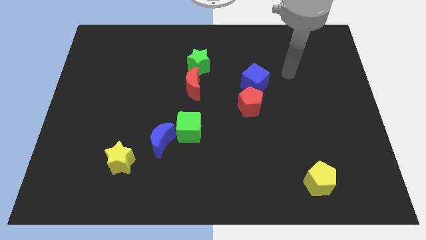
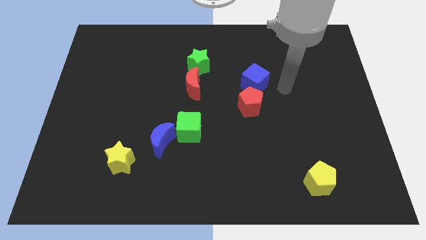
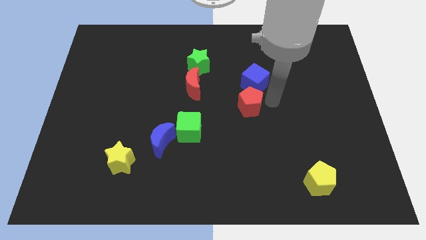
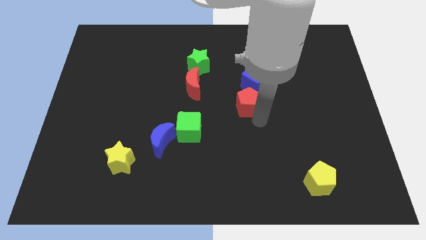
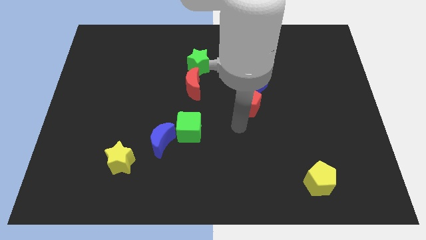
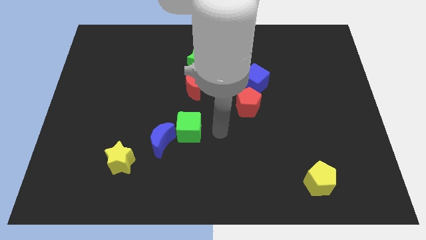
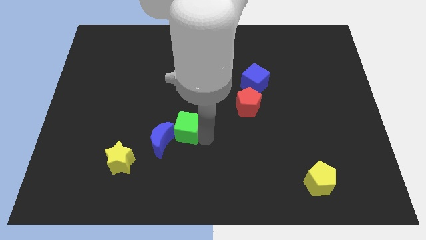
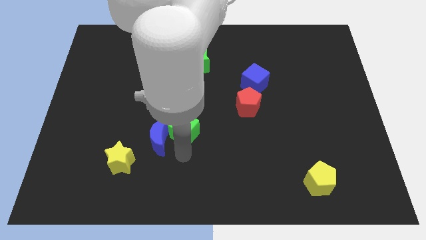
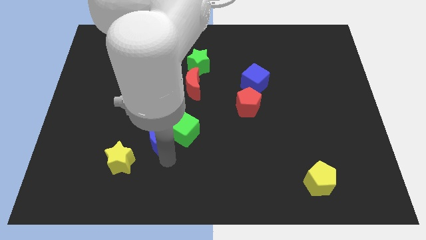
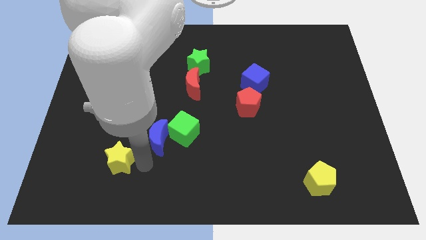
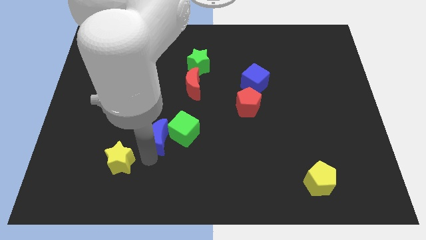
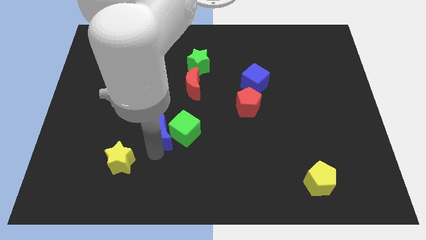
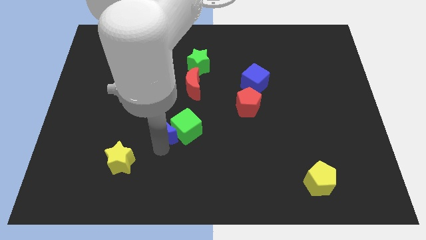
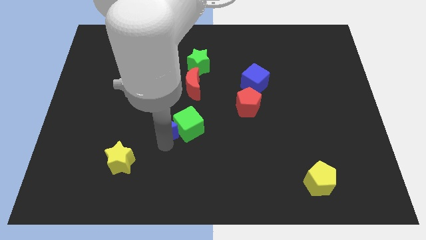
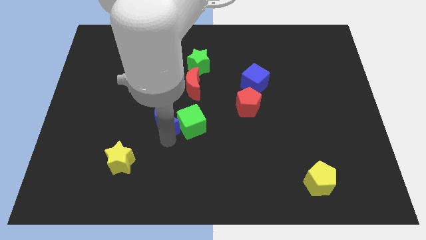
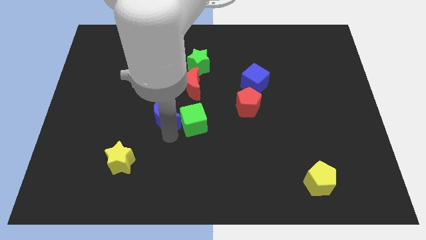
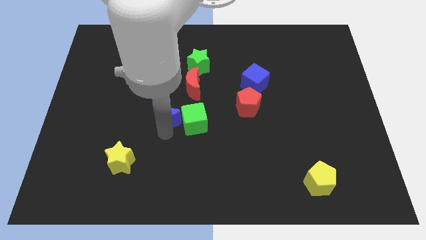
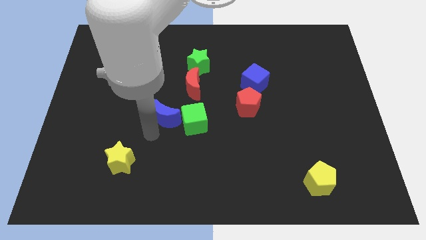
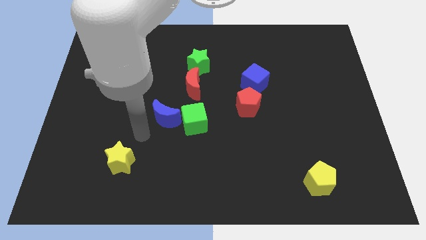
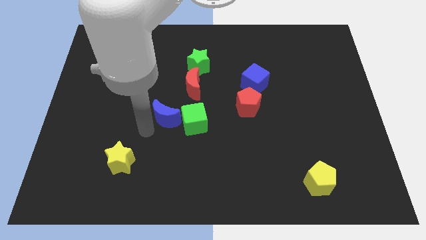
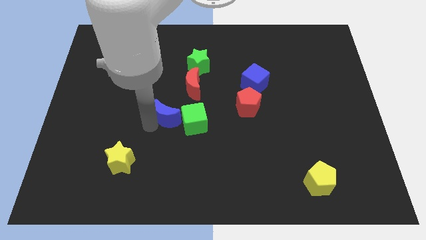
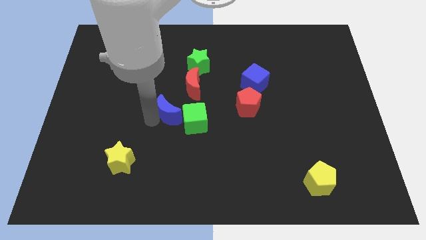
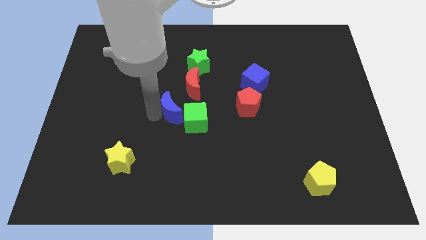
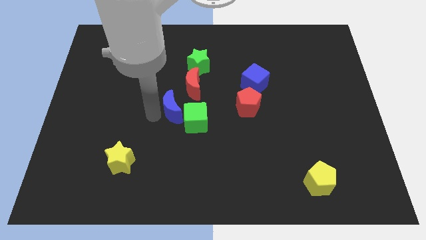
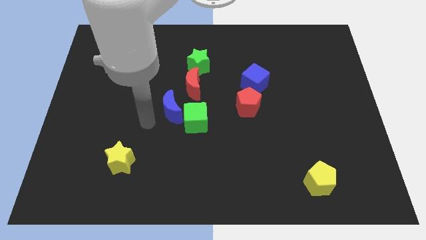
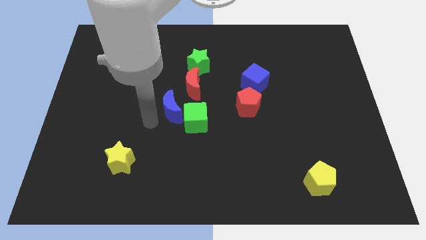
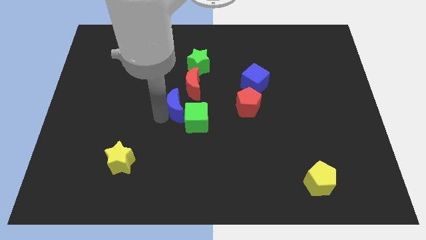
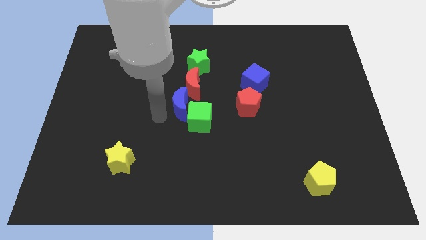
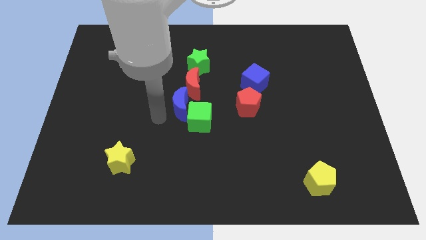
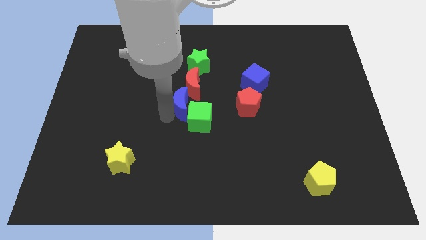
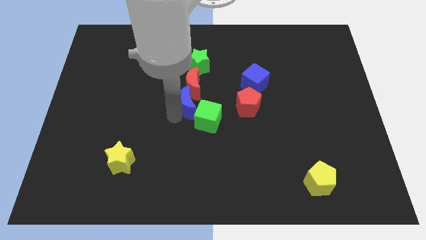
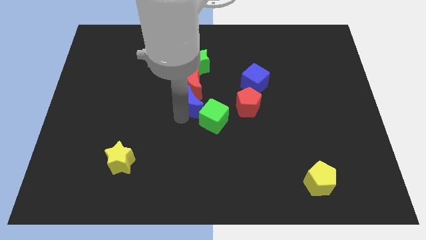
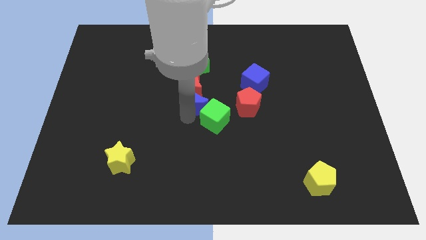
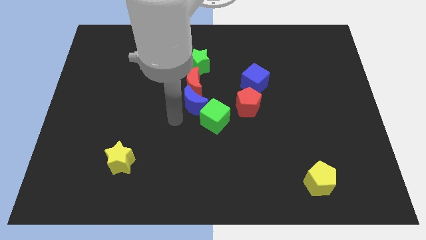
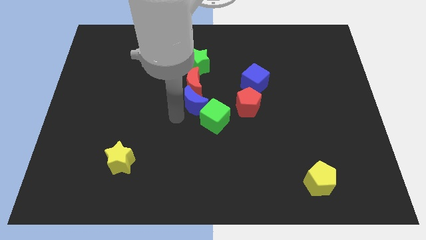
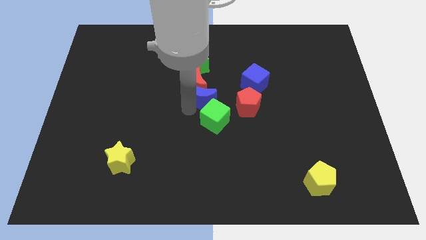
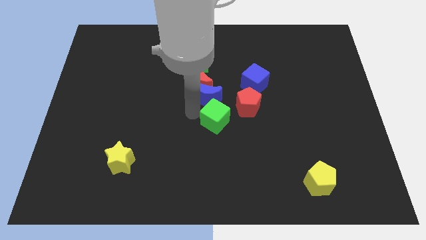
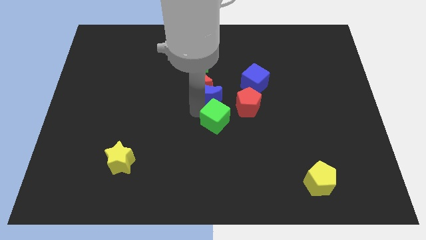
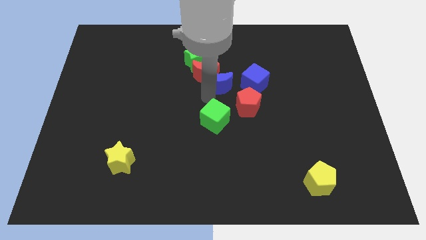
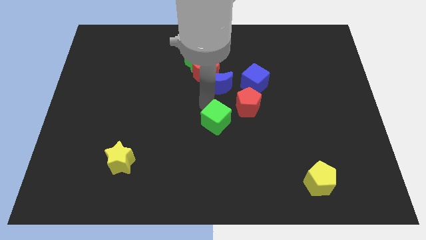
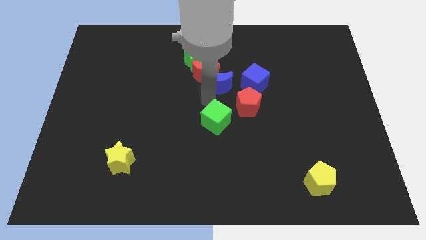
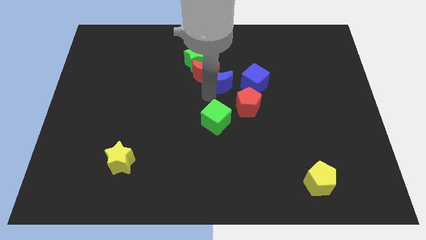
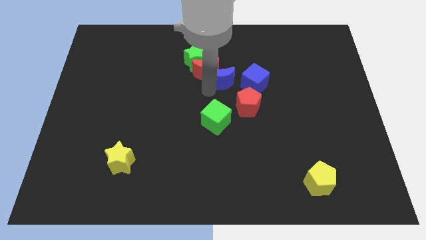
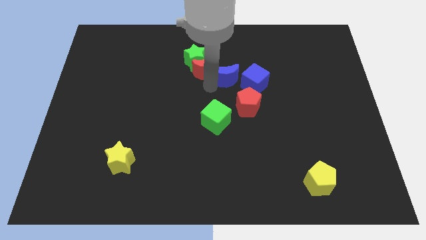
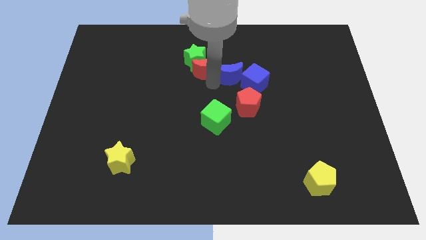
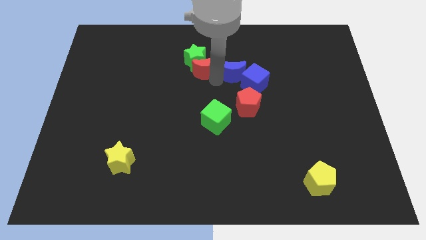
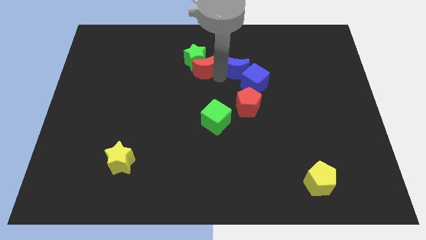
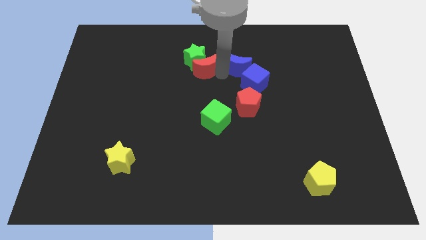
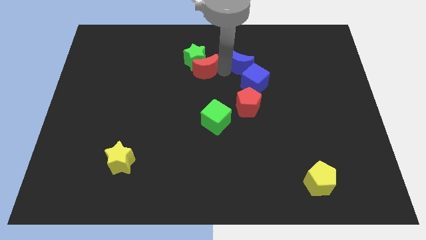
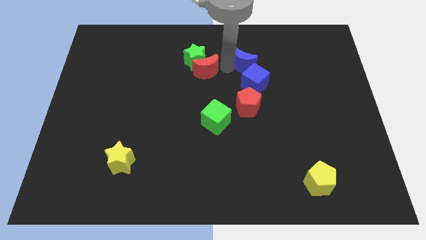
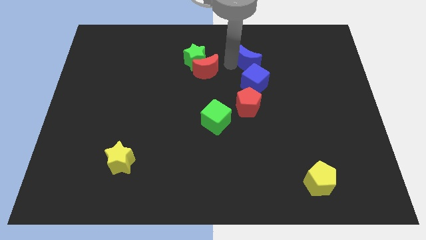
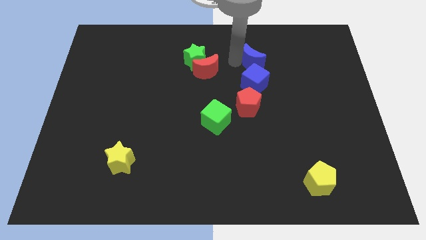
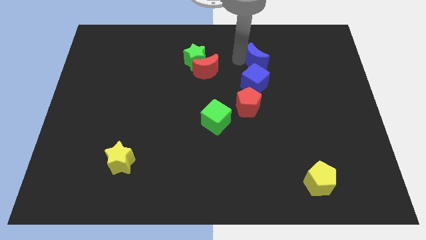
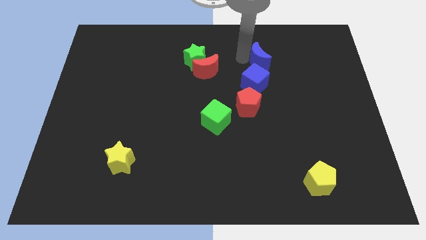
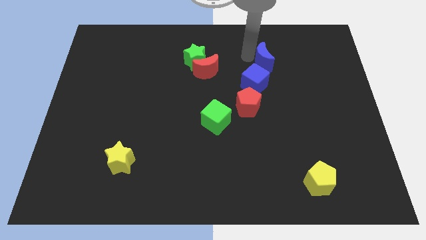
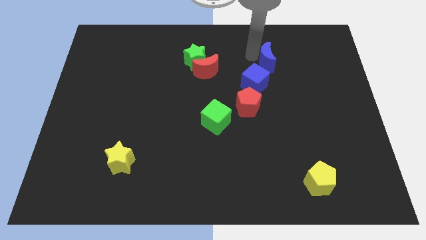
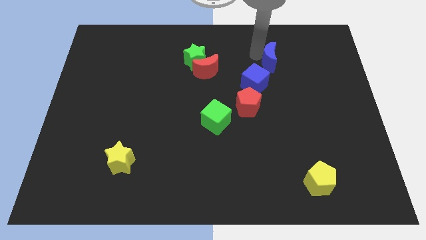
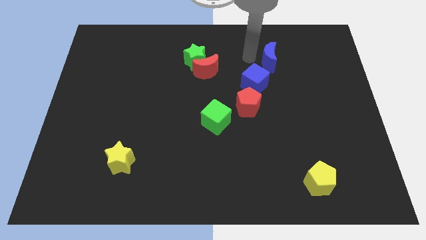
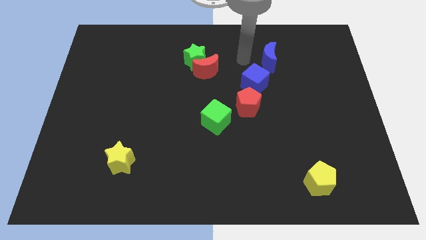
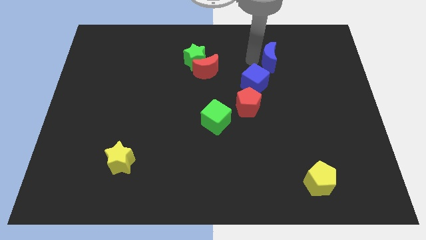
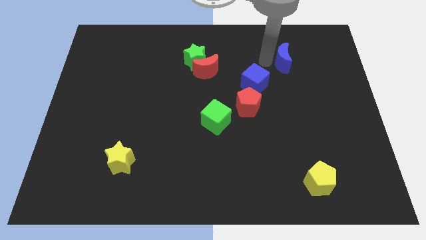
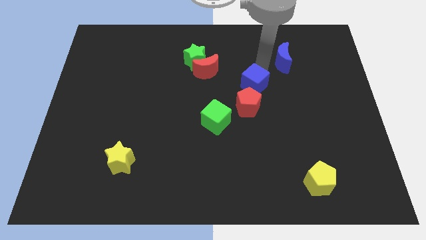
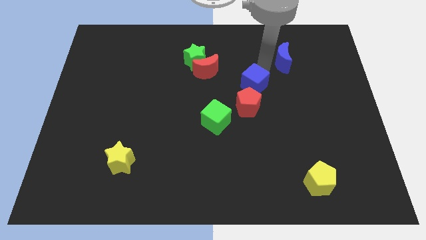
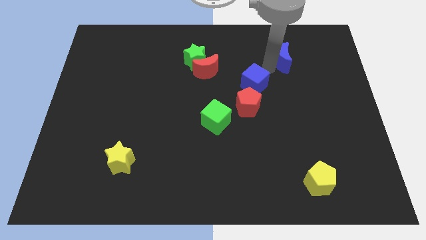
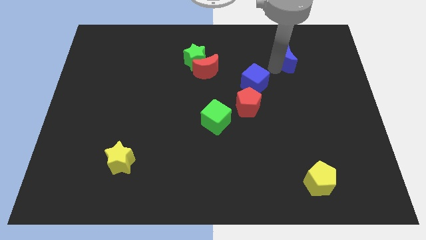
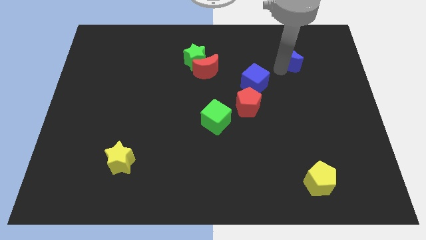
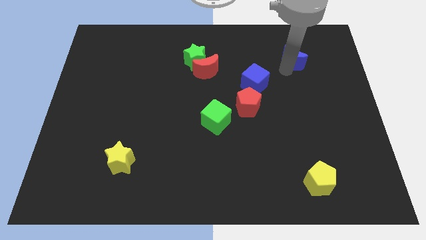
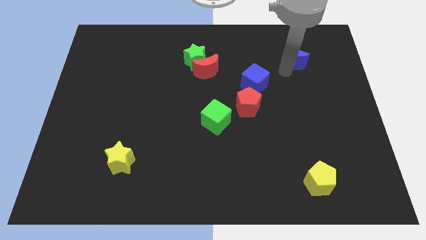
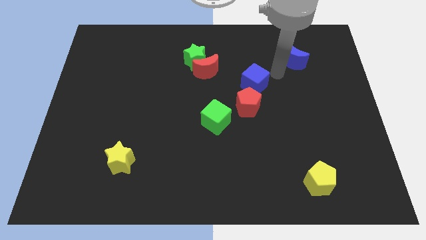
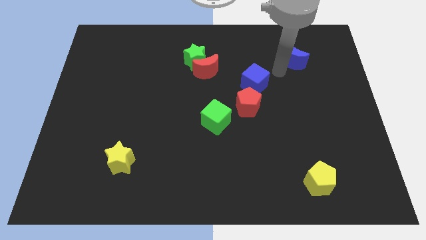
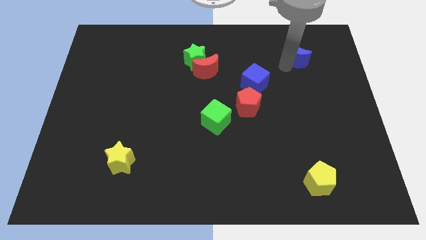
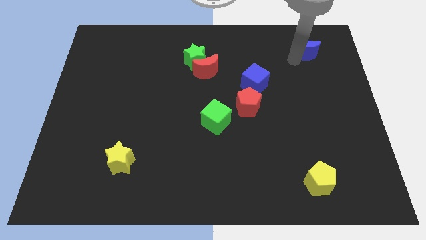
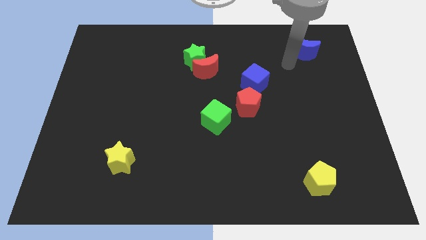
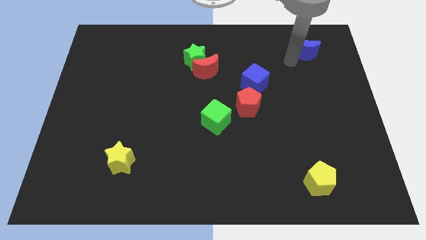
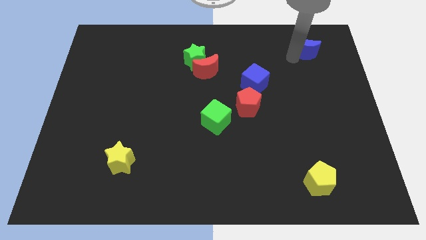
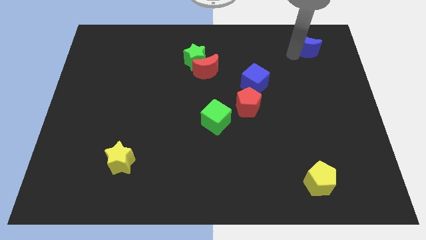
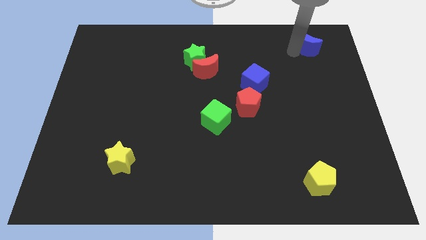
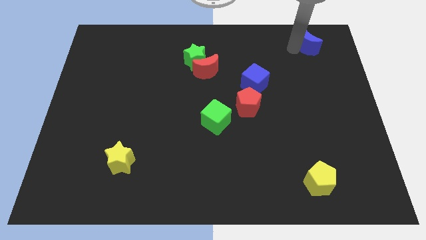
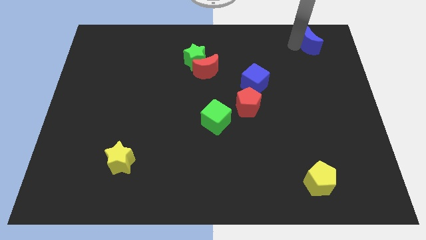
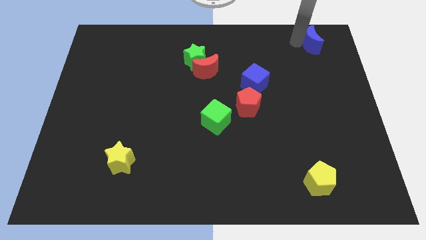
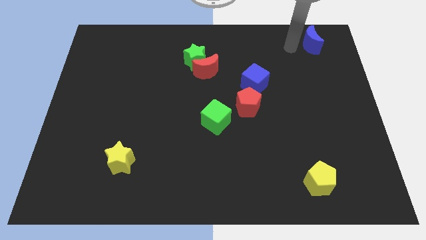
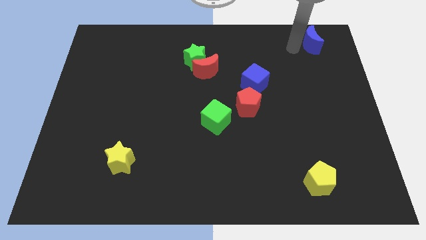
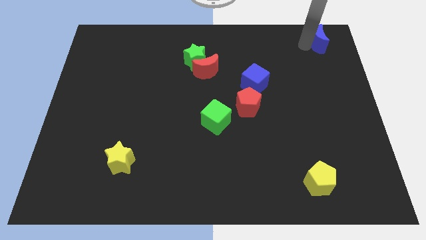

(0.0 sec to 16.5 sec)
slide the blue moon to the top right of the board
